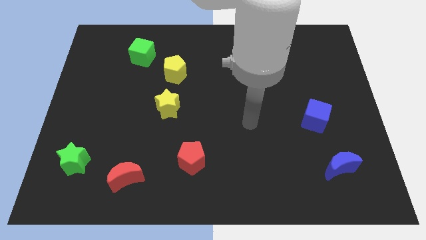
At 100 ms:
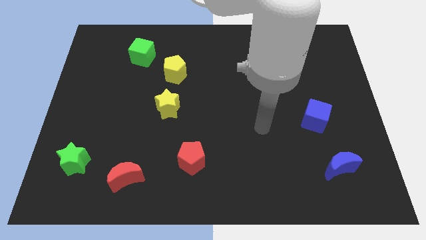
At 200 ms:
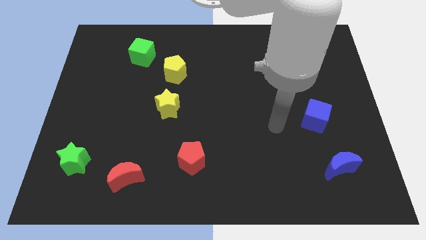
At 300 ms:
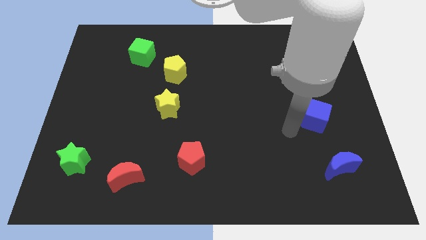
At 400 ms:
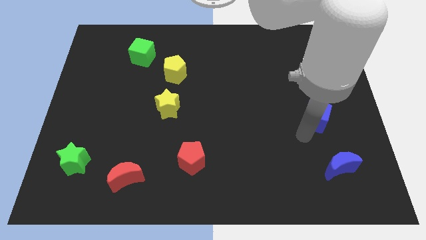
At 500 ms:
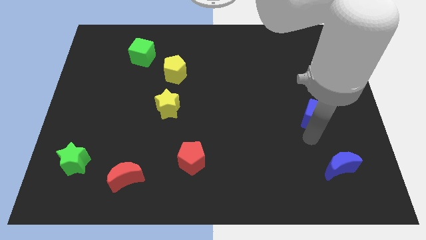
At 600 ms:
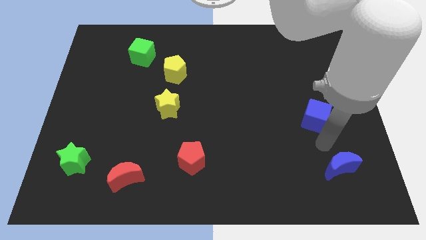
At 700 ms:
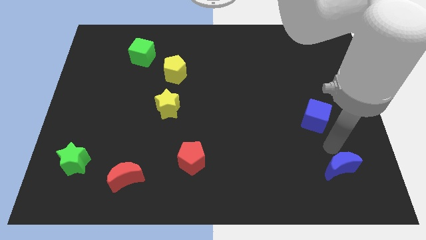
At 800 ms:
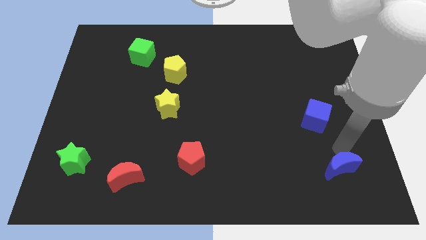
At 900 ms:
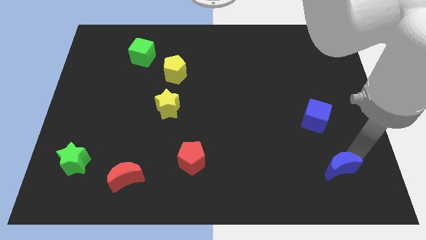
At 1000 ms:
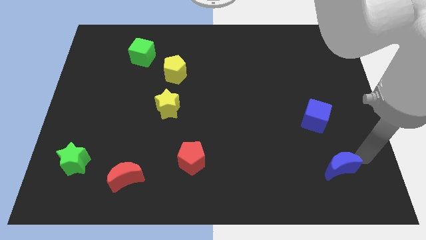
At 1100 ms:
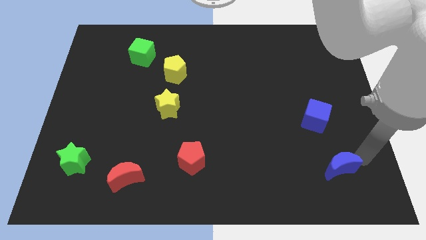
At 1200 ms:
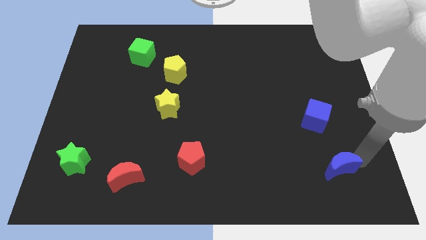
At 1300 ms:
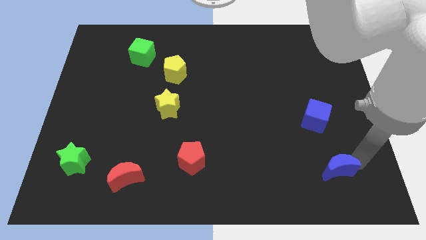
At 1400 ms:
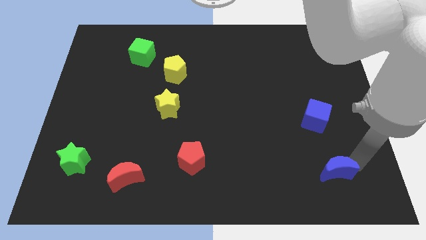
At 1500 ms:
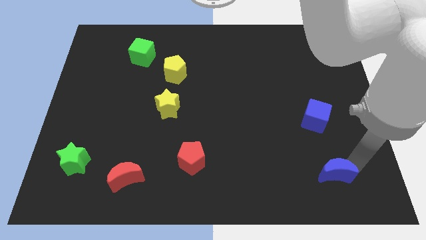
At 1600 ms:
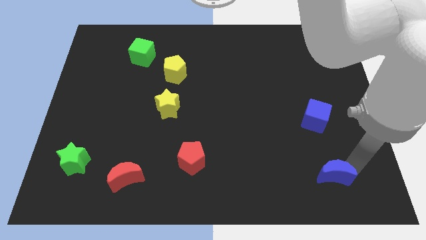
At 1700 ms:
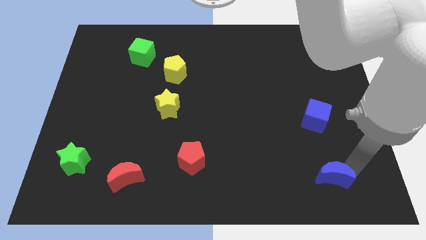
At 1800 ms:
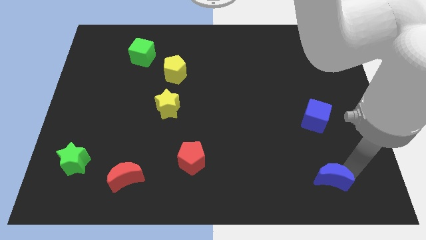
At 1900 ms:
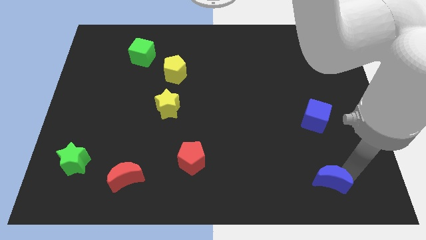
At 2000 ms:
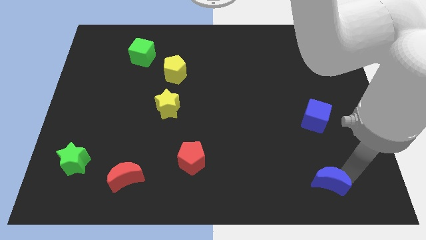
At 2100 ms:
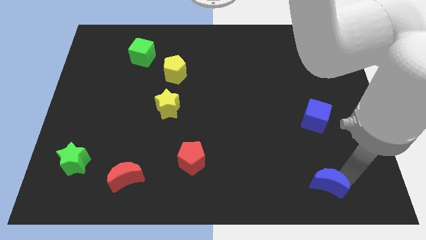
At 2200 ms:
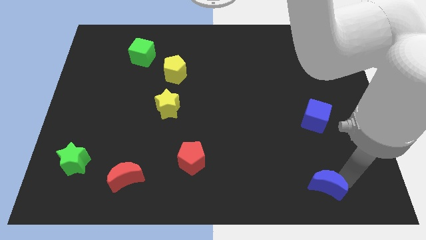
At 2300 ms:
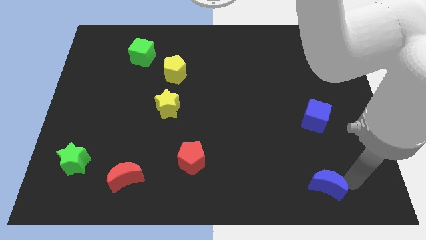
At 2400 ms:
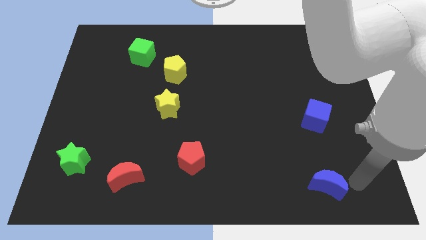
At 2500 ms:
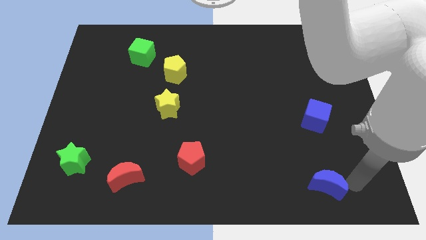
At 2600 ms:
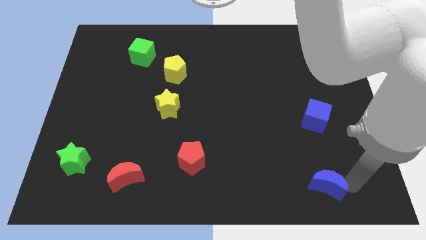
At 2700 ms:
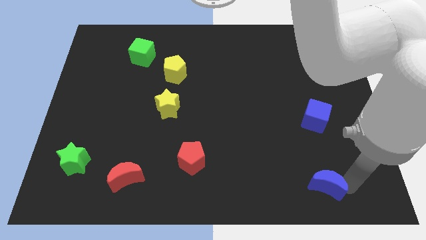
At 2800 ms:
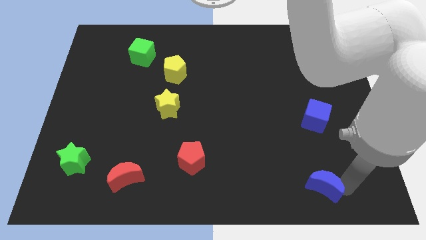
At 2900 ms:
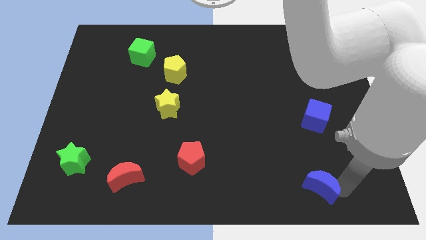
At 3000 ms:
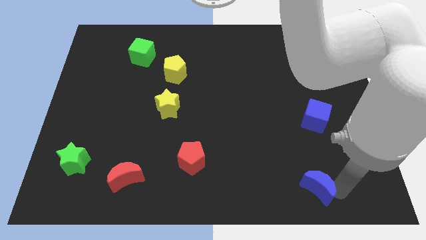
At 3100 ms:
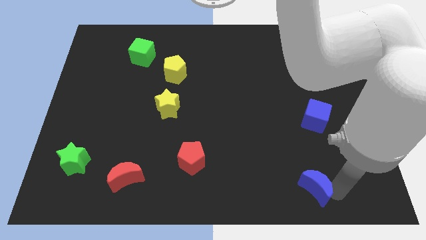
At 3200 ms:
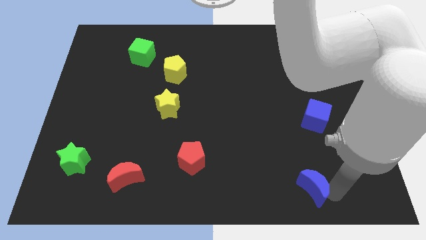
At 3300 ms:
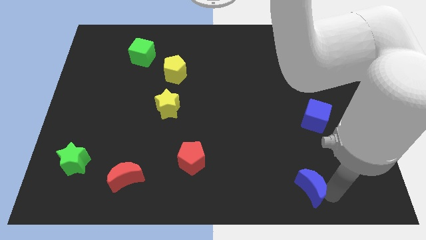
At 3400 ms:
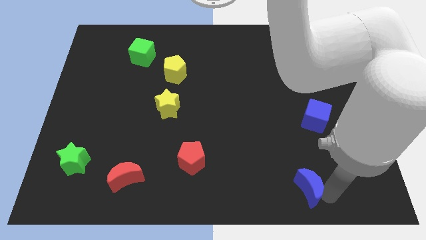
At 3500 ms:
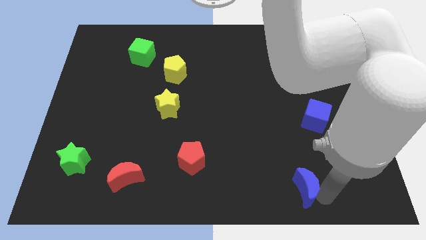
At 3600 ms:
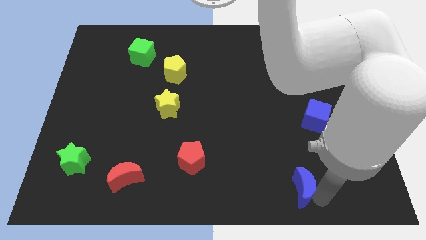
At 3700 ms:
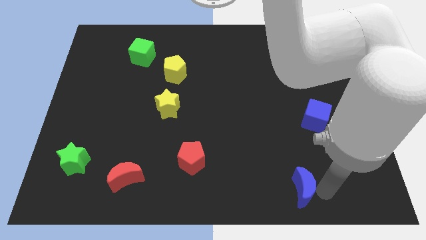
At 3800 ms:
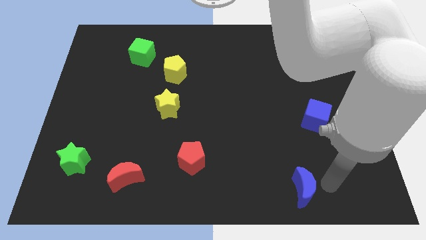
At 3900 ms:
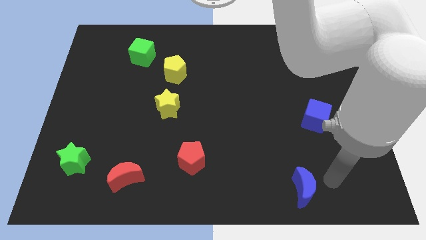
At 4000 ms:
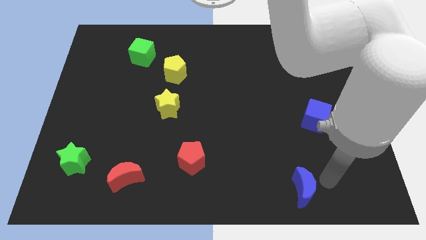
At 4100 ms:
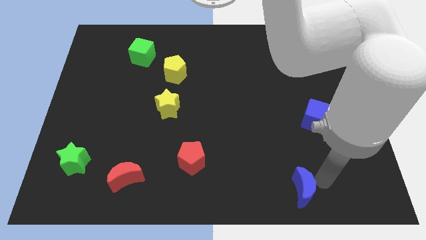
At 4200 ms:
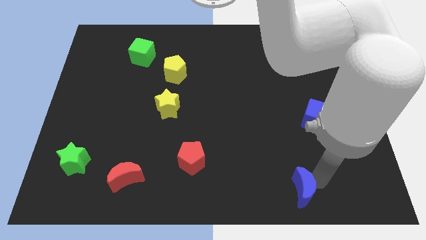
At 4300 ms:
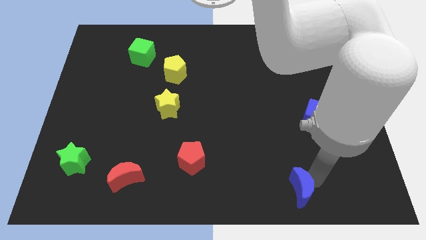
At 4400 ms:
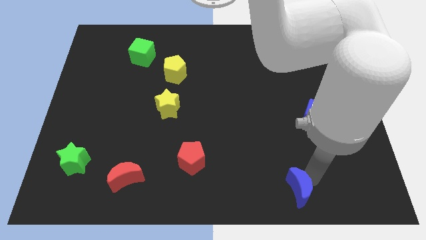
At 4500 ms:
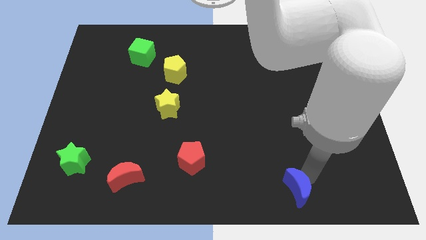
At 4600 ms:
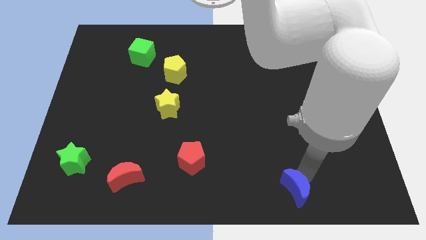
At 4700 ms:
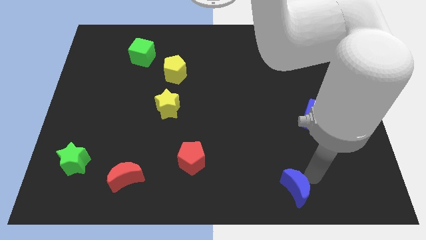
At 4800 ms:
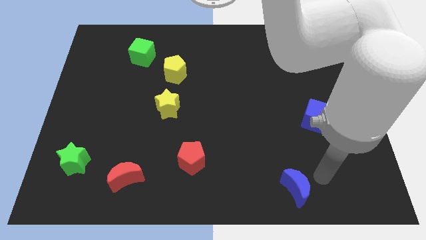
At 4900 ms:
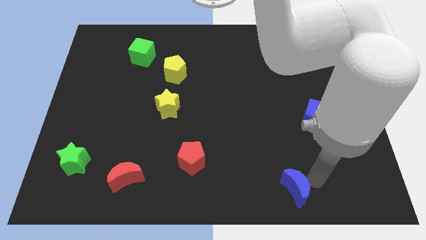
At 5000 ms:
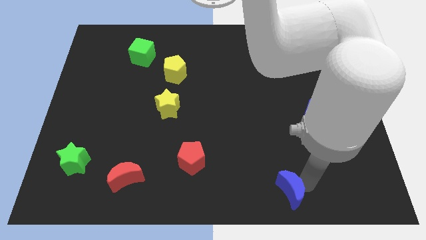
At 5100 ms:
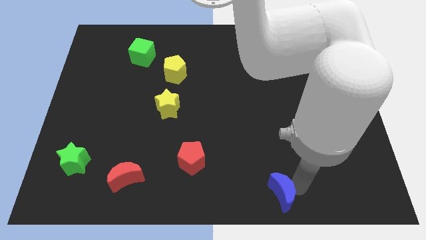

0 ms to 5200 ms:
put the blue moon to the bottom side

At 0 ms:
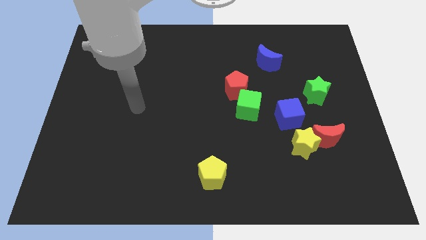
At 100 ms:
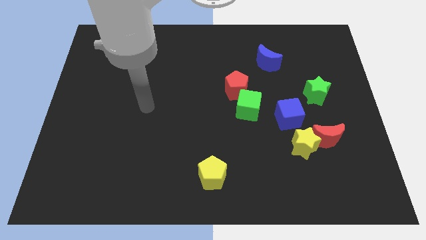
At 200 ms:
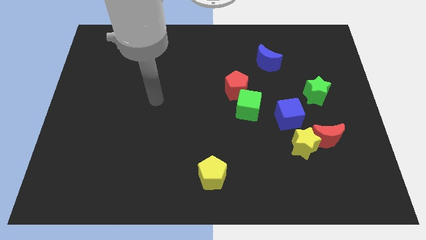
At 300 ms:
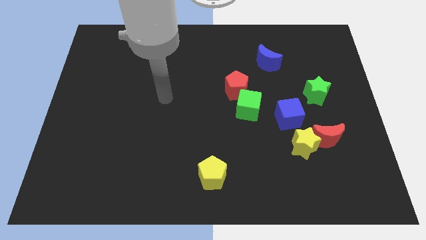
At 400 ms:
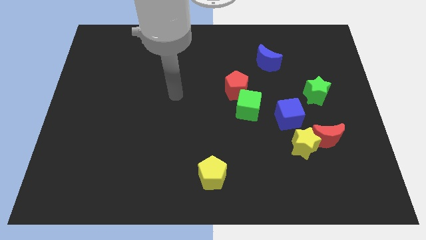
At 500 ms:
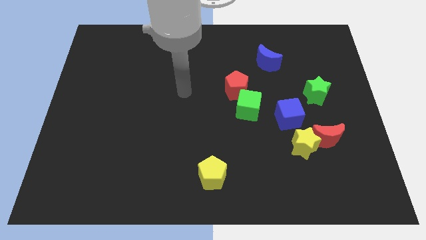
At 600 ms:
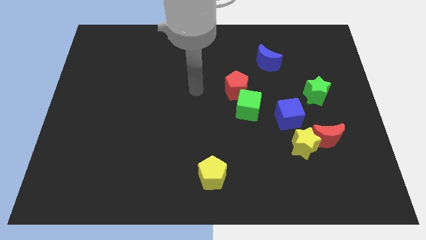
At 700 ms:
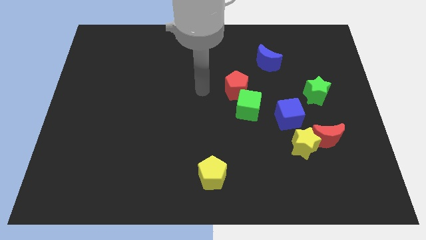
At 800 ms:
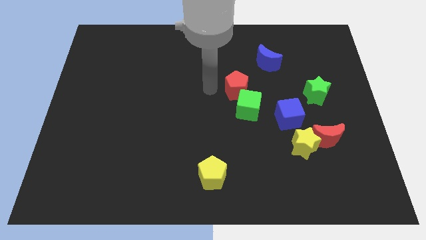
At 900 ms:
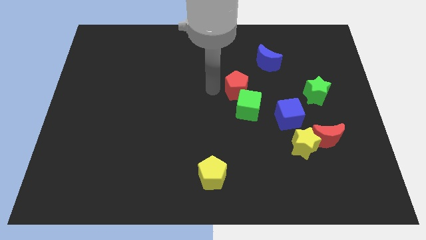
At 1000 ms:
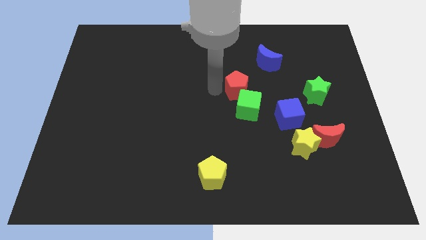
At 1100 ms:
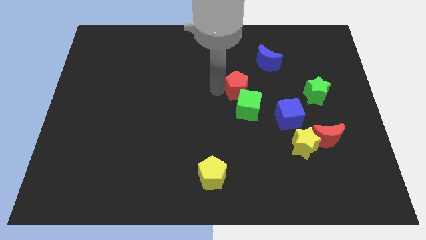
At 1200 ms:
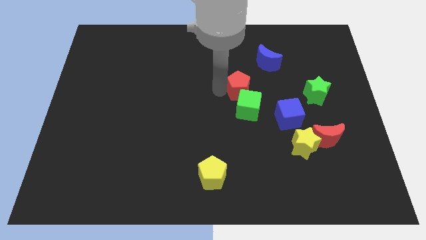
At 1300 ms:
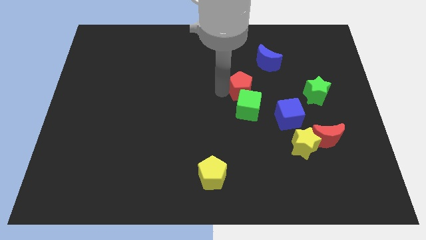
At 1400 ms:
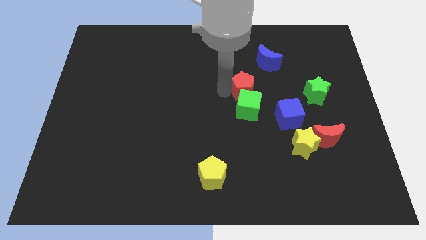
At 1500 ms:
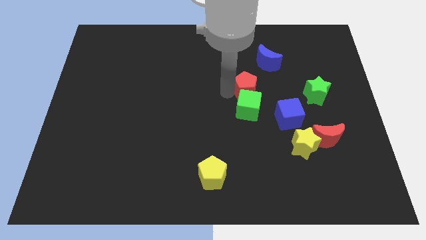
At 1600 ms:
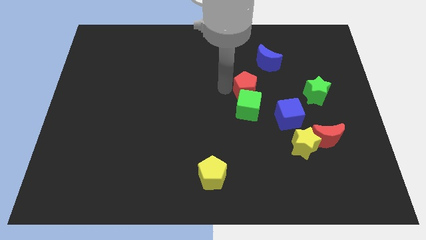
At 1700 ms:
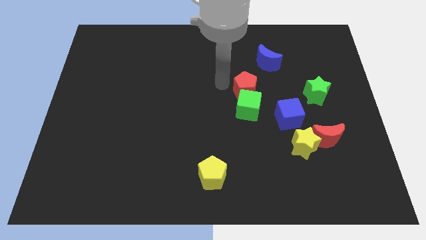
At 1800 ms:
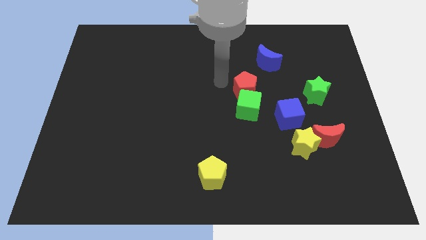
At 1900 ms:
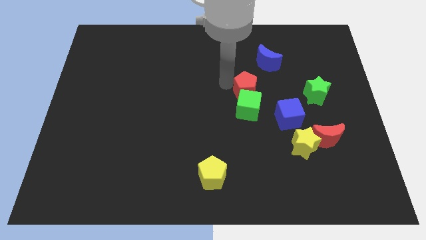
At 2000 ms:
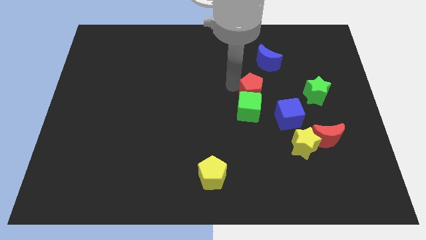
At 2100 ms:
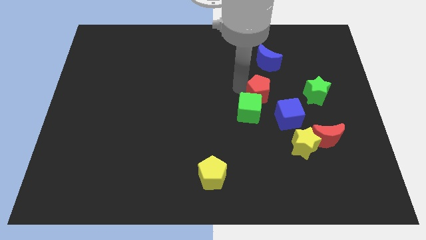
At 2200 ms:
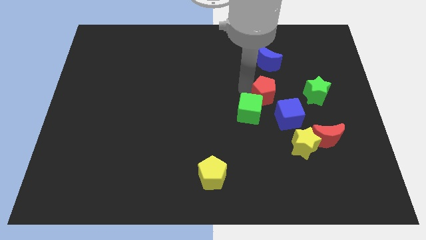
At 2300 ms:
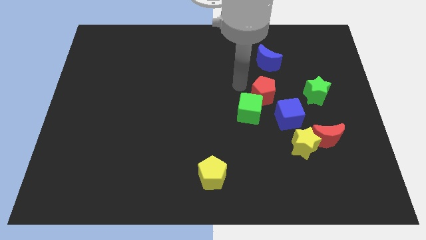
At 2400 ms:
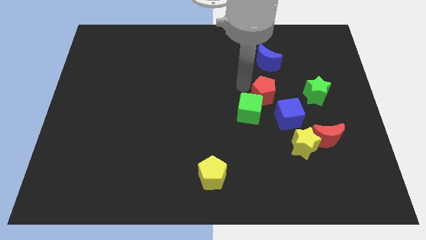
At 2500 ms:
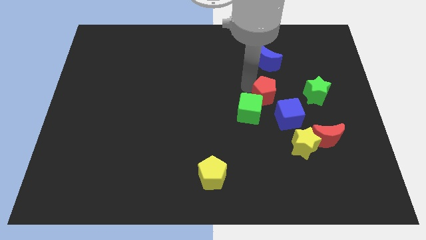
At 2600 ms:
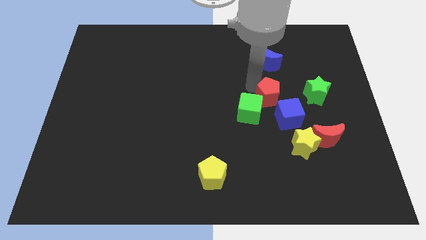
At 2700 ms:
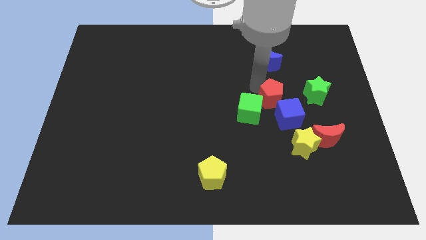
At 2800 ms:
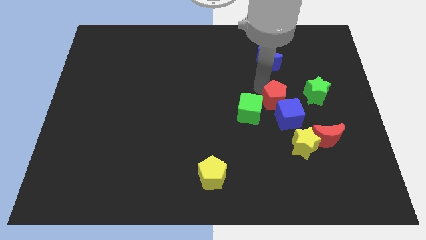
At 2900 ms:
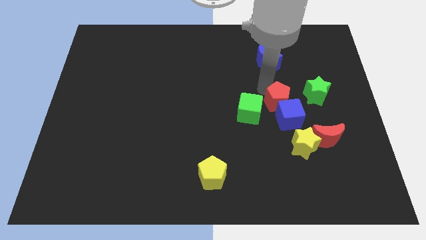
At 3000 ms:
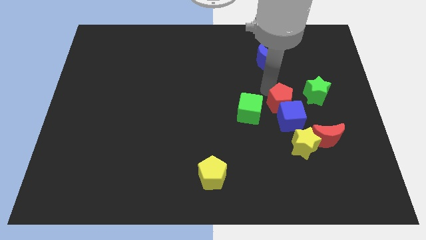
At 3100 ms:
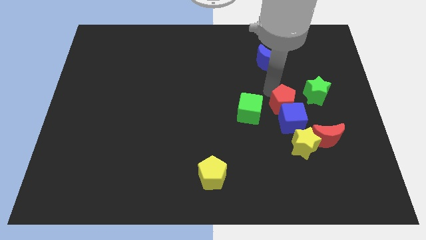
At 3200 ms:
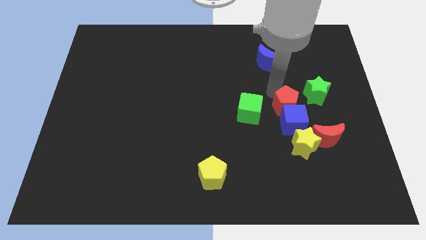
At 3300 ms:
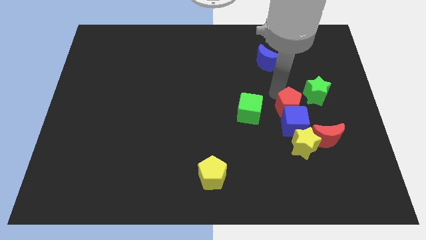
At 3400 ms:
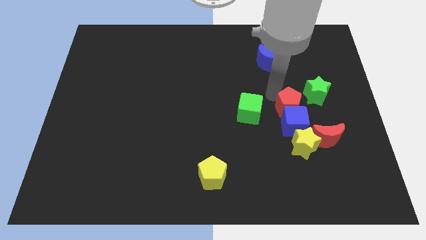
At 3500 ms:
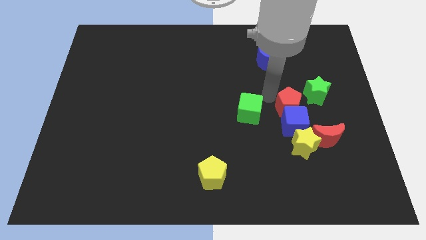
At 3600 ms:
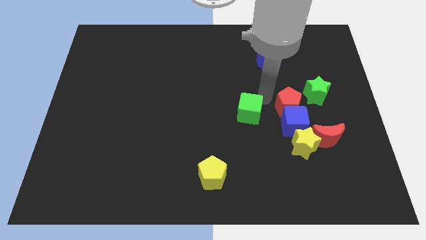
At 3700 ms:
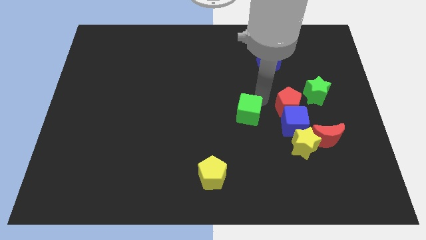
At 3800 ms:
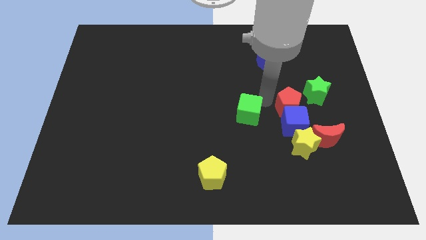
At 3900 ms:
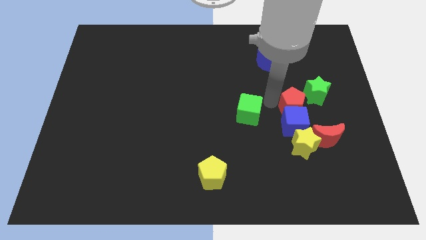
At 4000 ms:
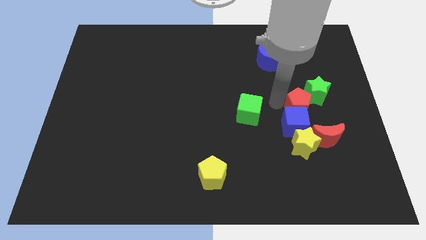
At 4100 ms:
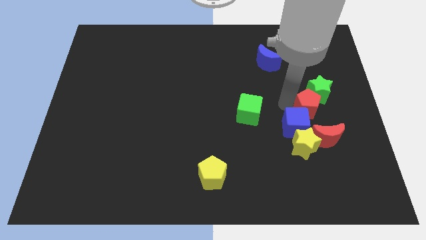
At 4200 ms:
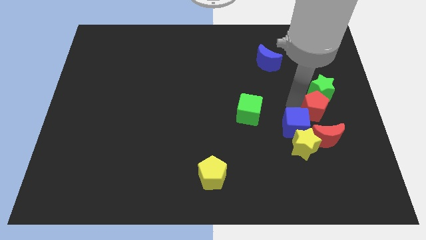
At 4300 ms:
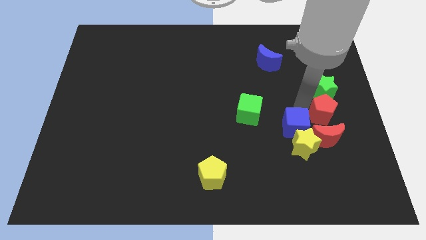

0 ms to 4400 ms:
push the red pentagon to the right side of the board
